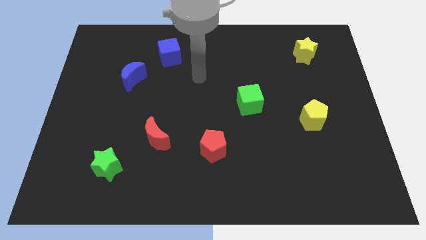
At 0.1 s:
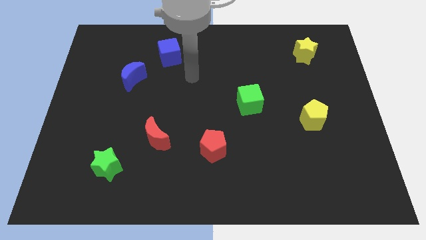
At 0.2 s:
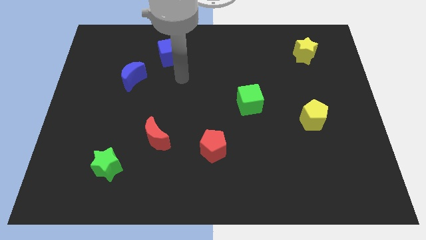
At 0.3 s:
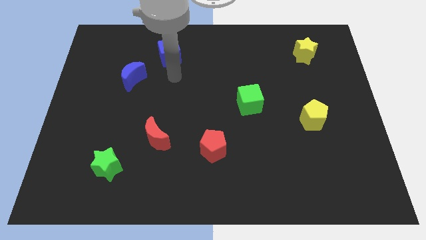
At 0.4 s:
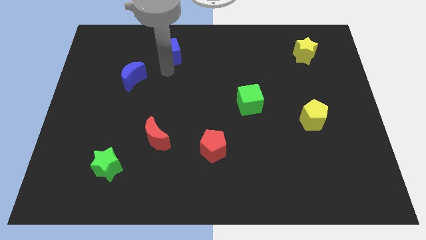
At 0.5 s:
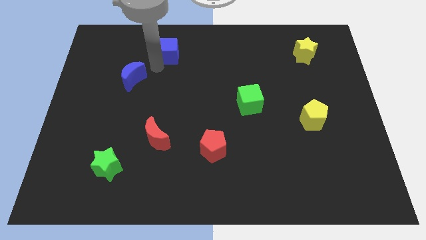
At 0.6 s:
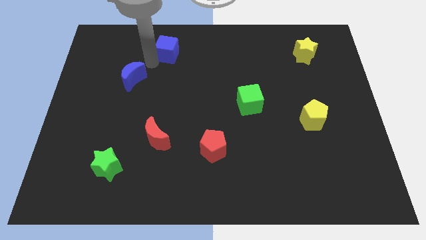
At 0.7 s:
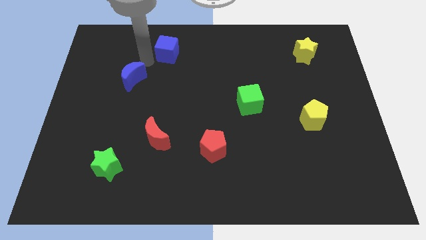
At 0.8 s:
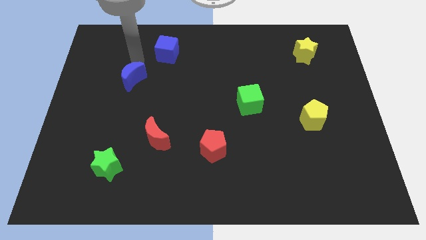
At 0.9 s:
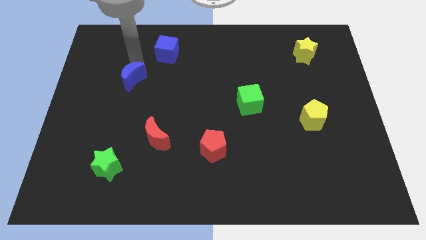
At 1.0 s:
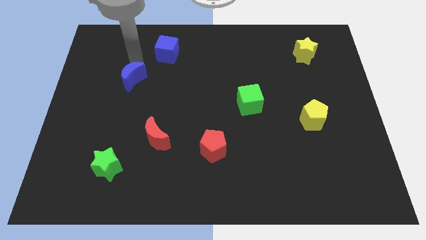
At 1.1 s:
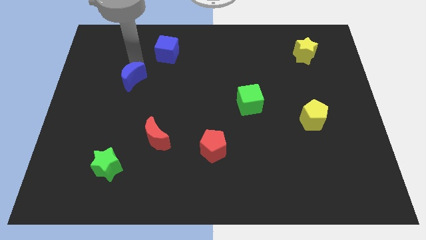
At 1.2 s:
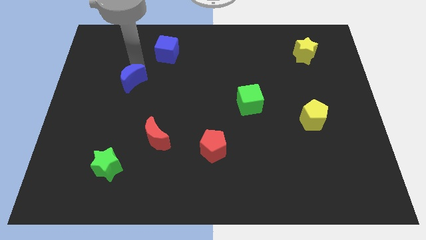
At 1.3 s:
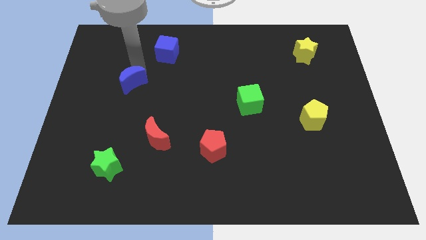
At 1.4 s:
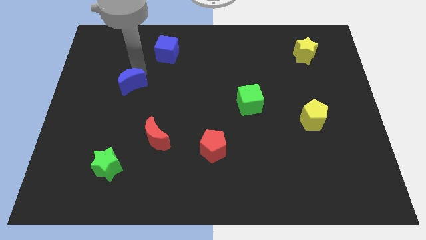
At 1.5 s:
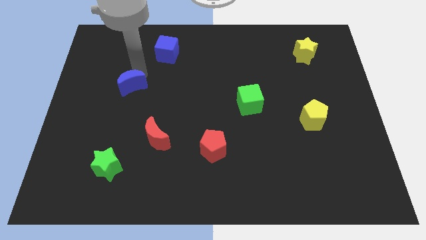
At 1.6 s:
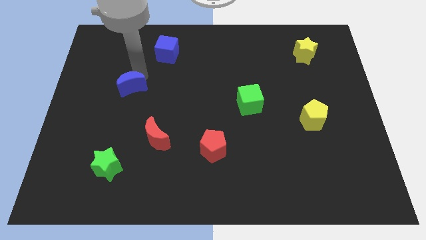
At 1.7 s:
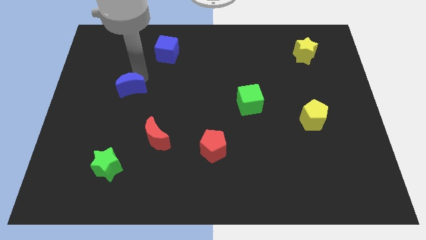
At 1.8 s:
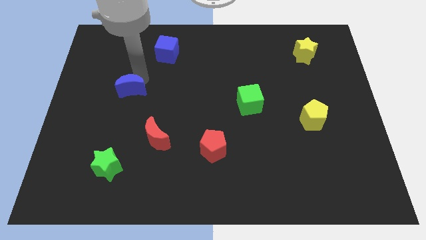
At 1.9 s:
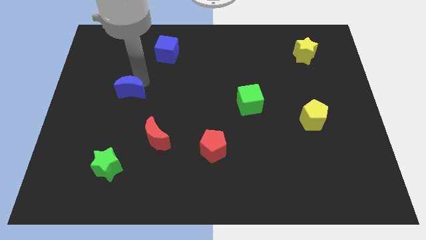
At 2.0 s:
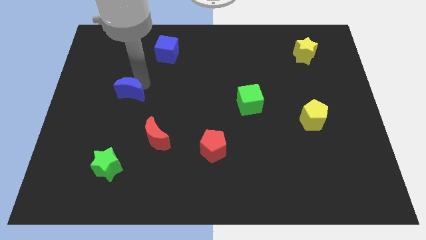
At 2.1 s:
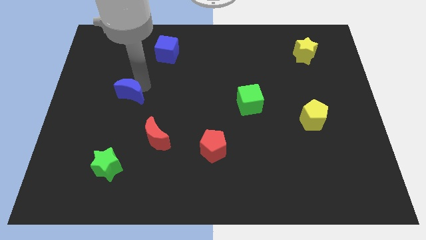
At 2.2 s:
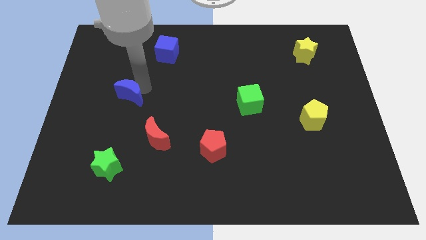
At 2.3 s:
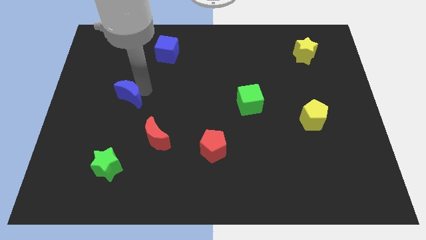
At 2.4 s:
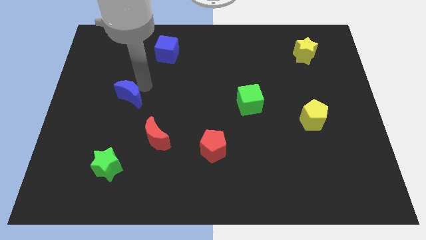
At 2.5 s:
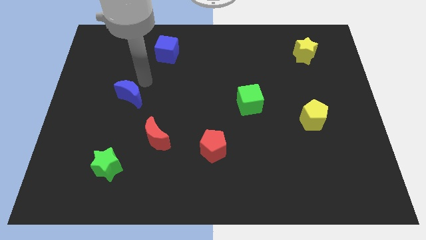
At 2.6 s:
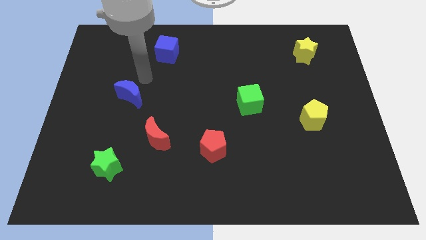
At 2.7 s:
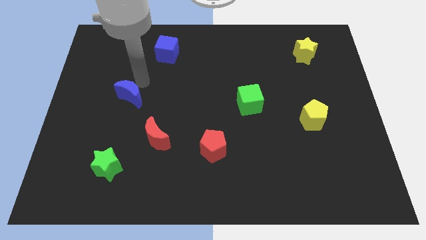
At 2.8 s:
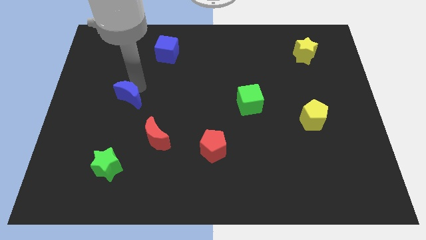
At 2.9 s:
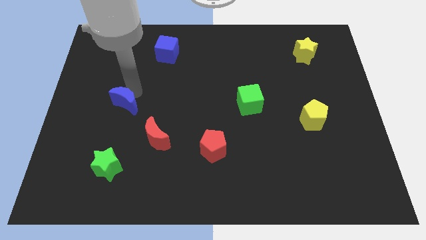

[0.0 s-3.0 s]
slightly move the blue moon downwards

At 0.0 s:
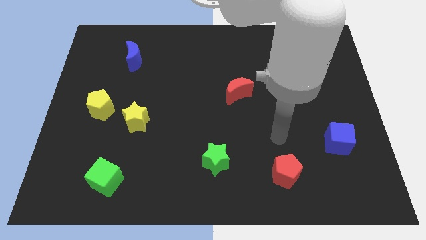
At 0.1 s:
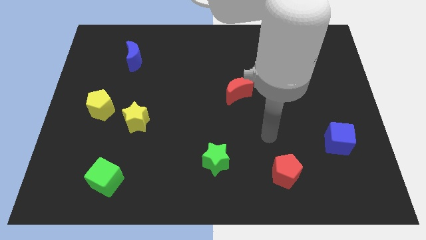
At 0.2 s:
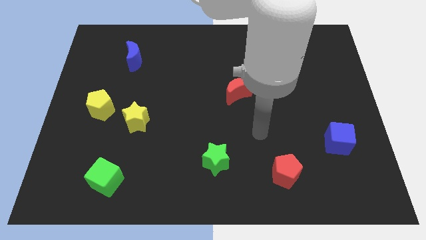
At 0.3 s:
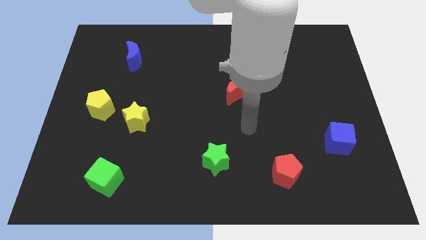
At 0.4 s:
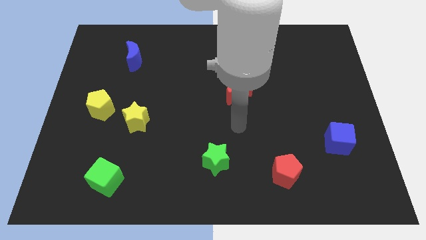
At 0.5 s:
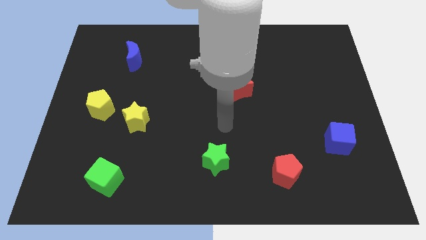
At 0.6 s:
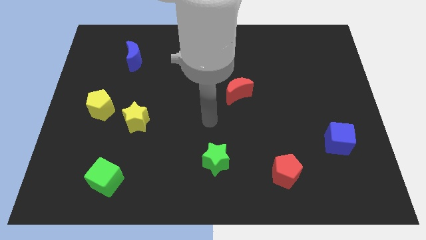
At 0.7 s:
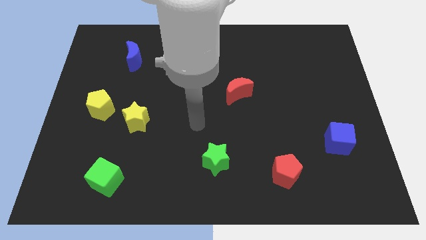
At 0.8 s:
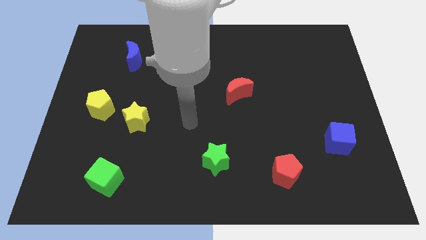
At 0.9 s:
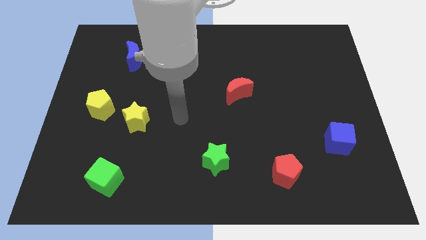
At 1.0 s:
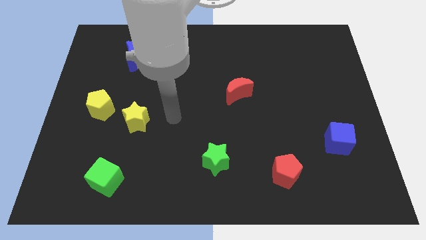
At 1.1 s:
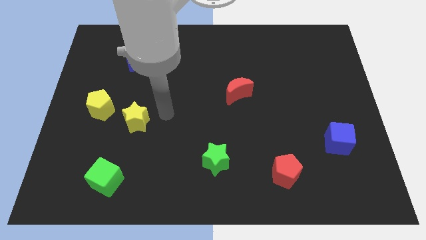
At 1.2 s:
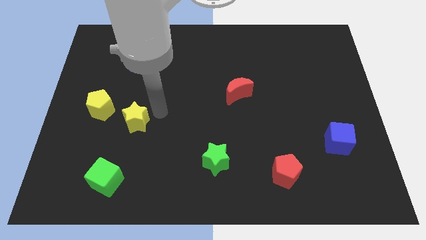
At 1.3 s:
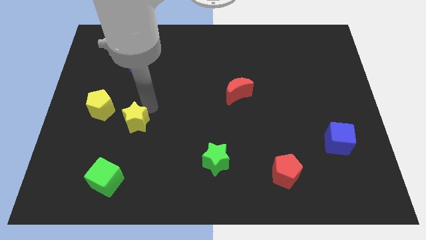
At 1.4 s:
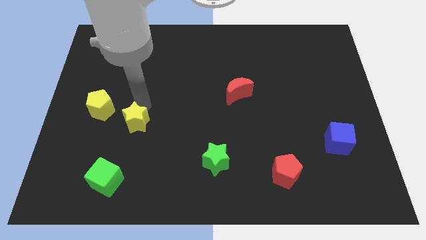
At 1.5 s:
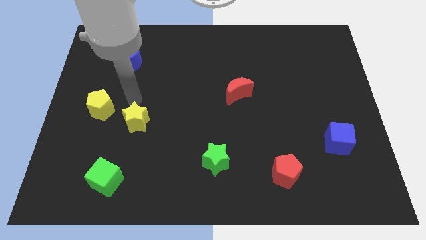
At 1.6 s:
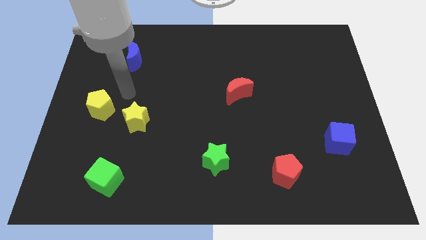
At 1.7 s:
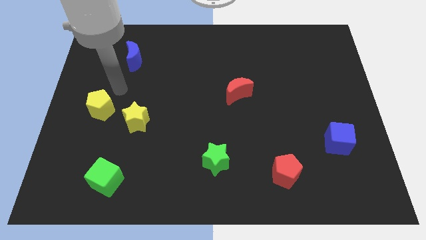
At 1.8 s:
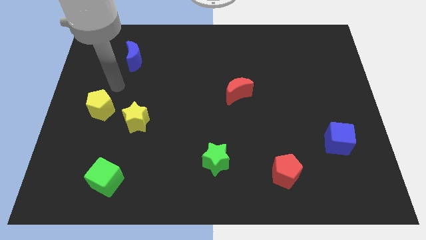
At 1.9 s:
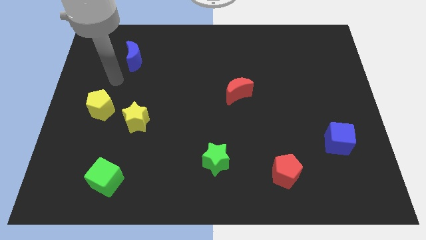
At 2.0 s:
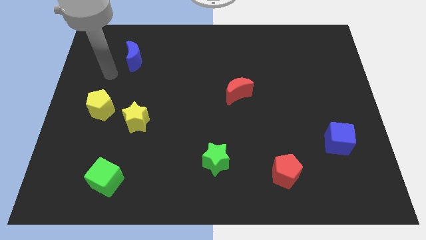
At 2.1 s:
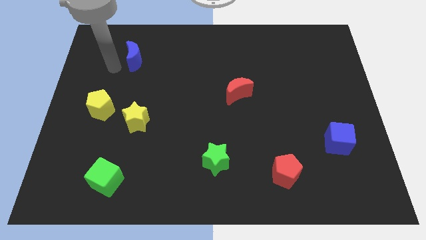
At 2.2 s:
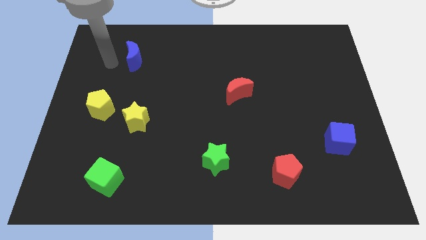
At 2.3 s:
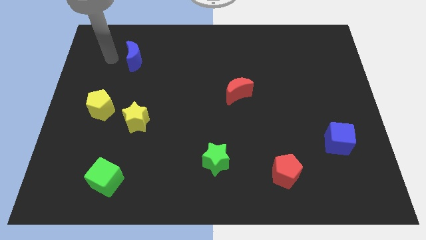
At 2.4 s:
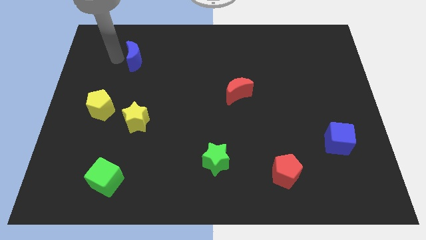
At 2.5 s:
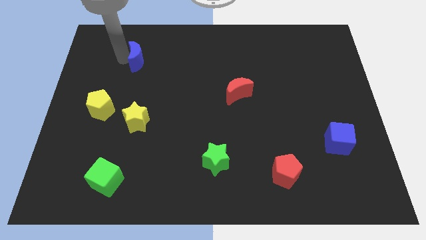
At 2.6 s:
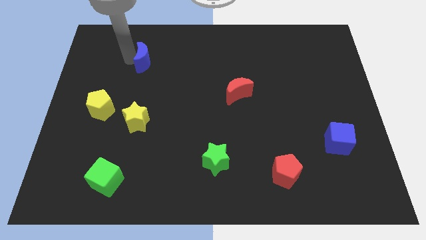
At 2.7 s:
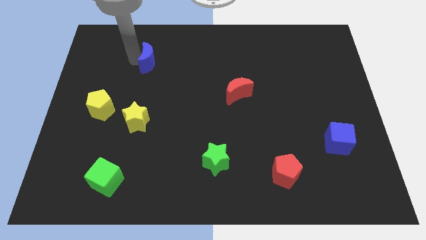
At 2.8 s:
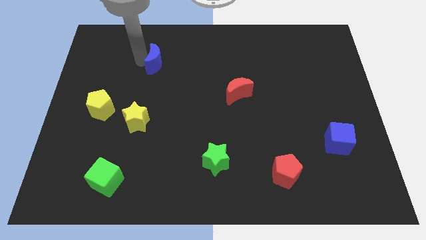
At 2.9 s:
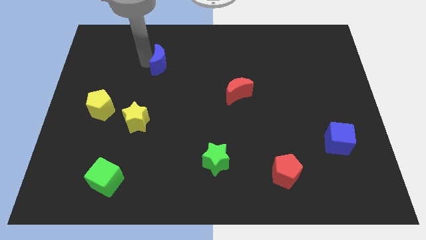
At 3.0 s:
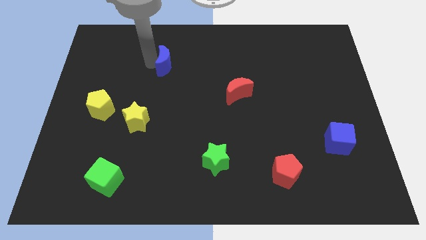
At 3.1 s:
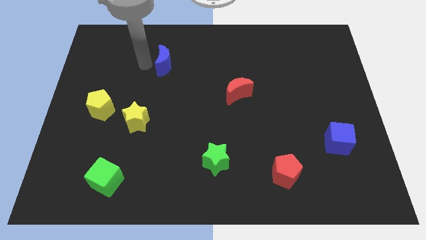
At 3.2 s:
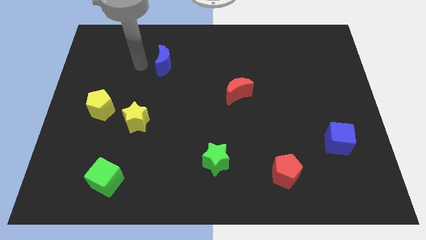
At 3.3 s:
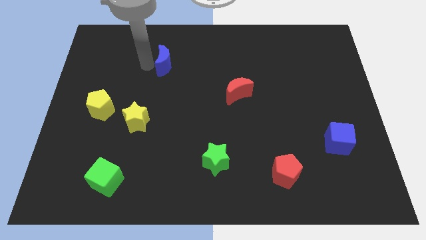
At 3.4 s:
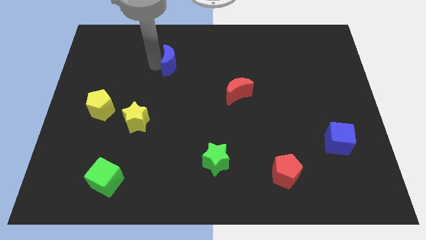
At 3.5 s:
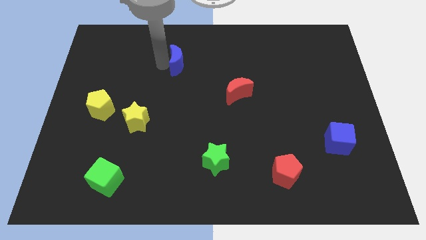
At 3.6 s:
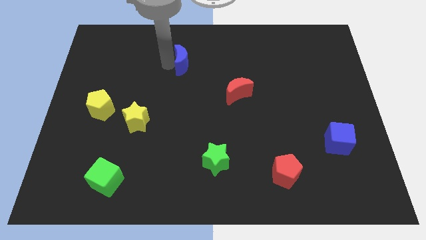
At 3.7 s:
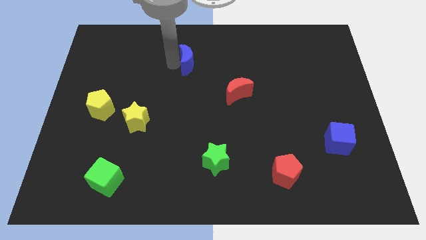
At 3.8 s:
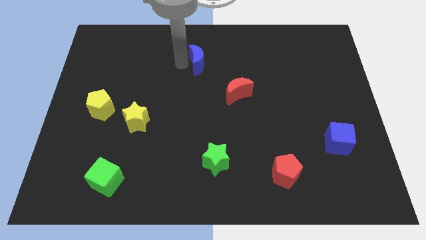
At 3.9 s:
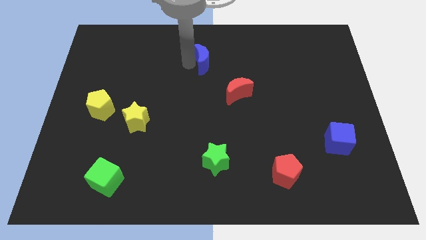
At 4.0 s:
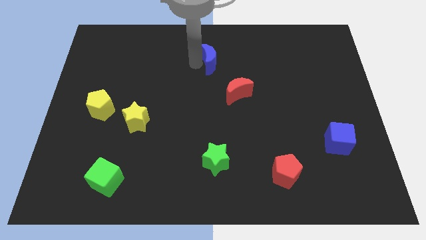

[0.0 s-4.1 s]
slide the blue moon right

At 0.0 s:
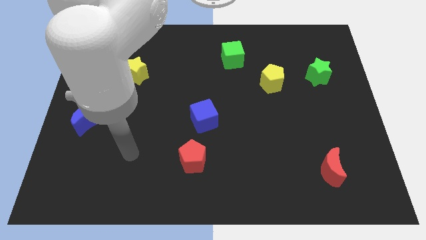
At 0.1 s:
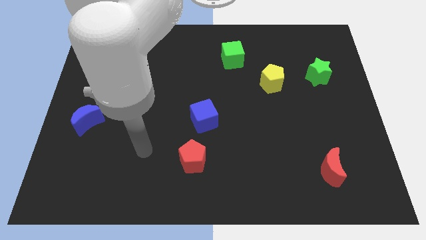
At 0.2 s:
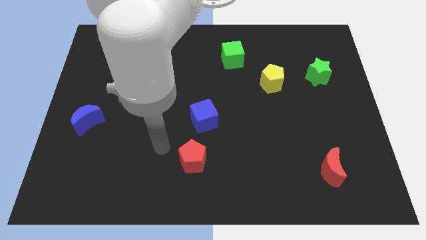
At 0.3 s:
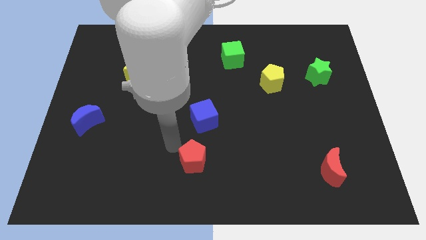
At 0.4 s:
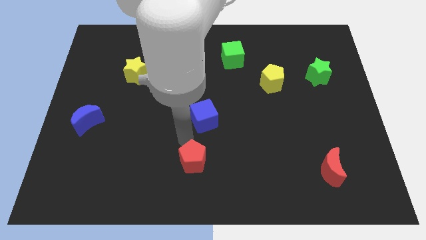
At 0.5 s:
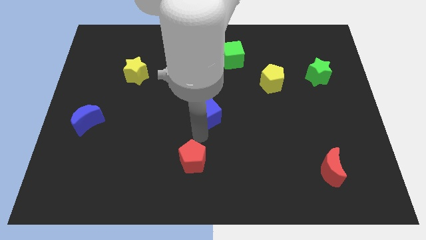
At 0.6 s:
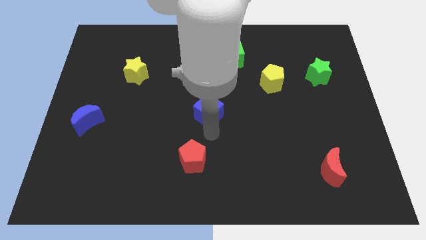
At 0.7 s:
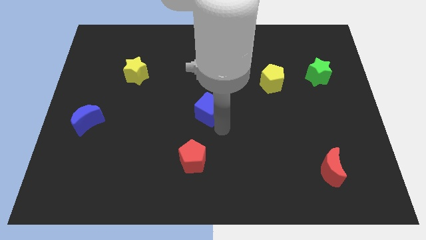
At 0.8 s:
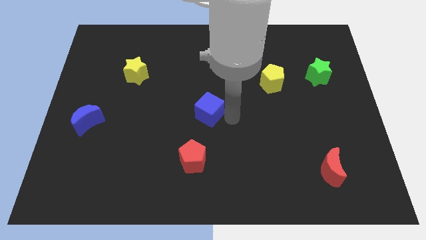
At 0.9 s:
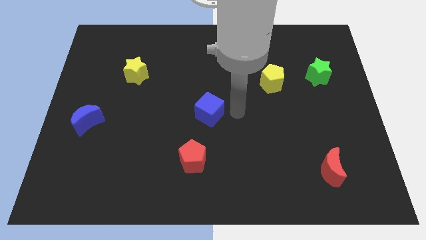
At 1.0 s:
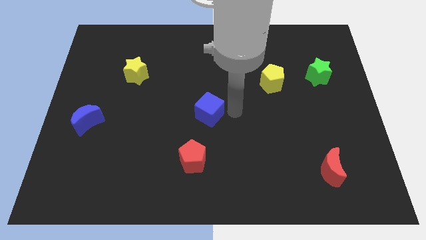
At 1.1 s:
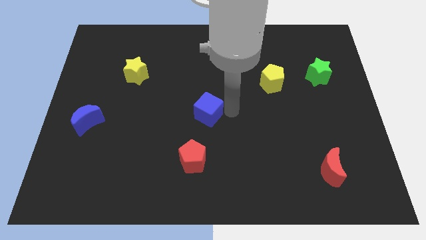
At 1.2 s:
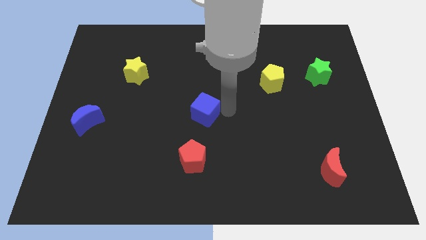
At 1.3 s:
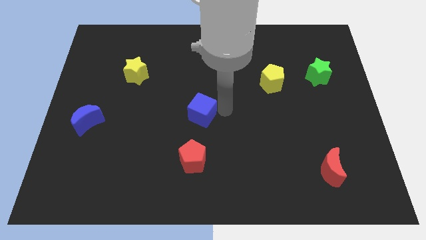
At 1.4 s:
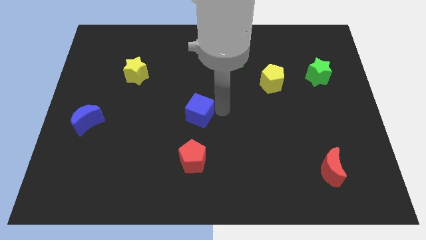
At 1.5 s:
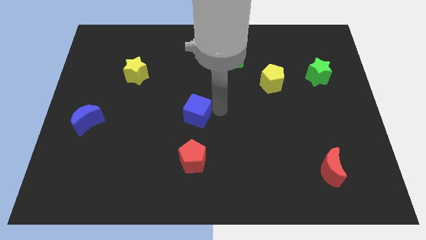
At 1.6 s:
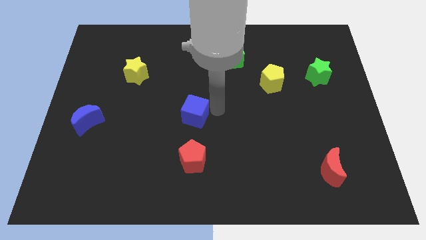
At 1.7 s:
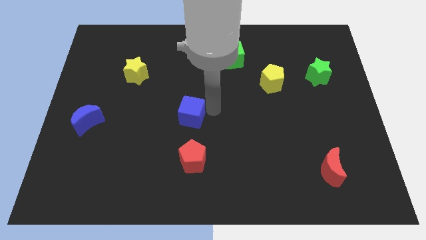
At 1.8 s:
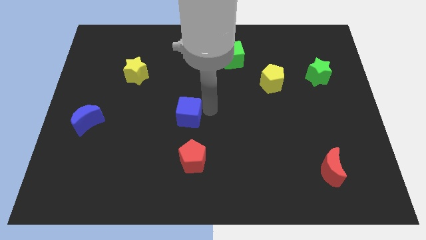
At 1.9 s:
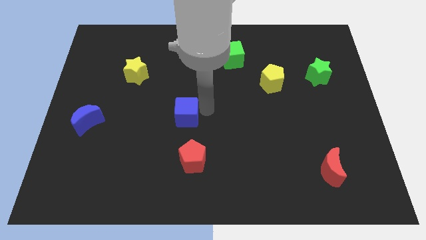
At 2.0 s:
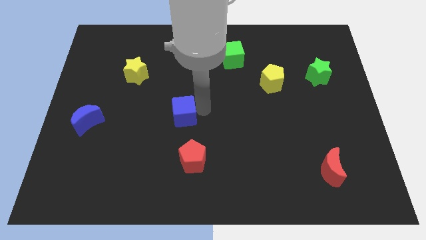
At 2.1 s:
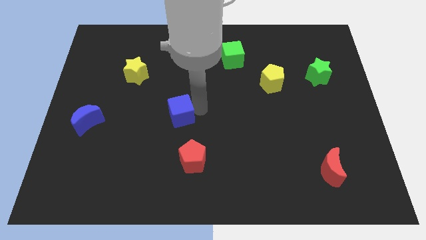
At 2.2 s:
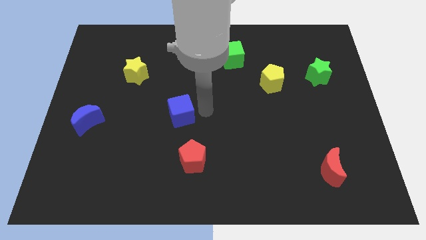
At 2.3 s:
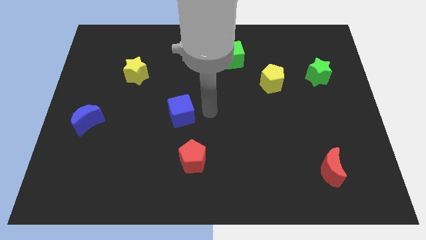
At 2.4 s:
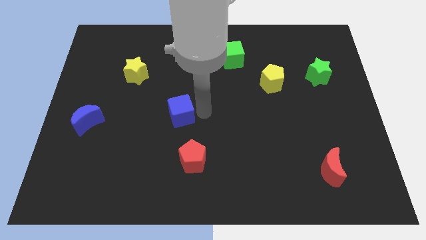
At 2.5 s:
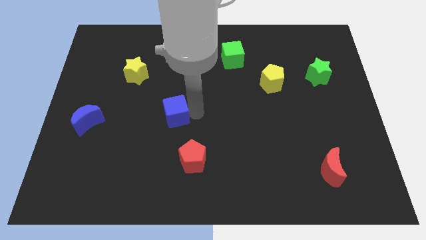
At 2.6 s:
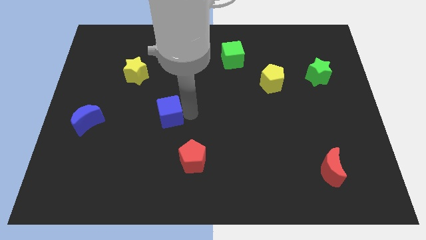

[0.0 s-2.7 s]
move the blue cube somewhat to the left
